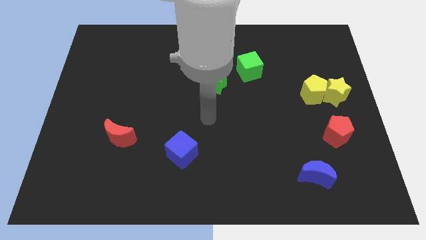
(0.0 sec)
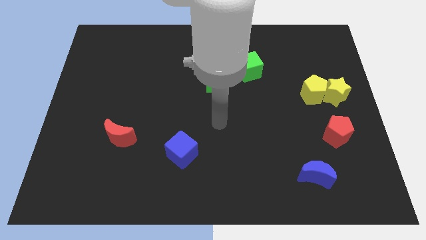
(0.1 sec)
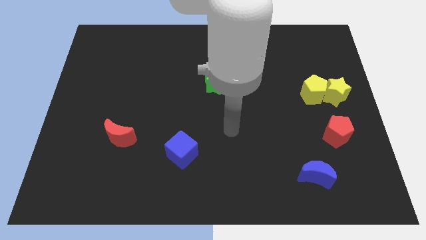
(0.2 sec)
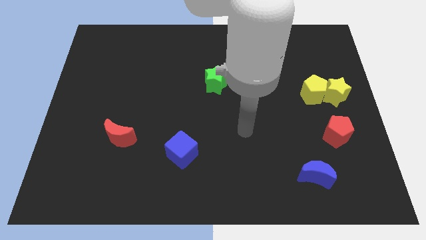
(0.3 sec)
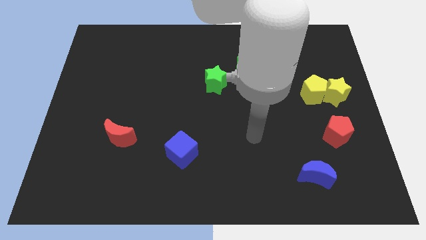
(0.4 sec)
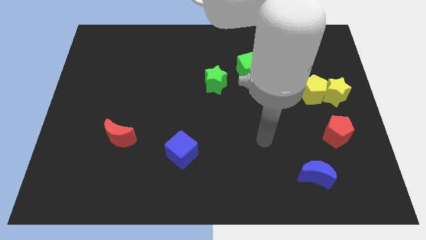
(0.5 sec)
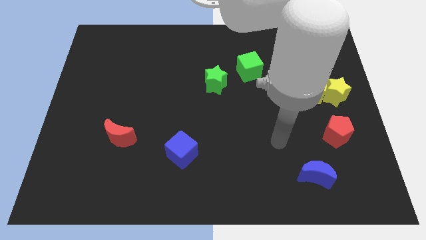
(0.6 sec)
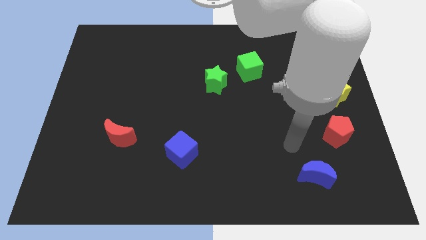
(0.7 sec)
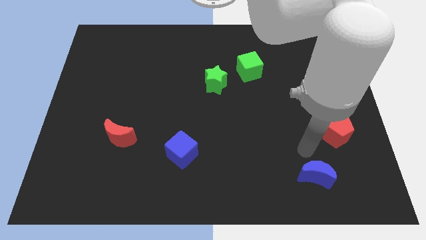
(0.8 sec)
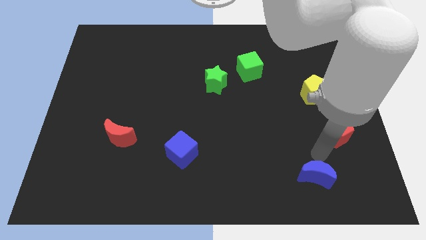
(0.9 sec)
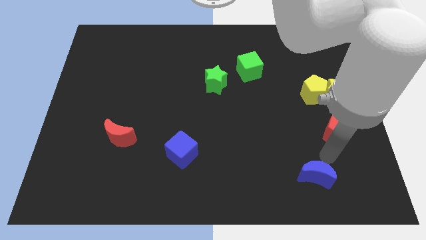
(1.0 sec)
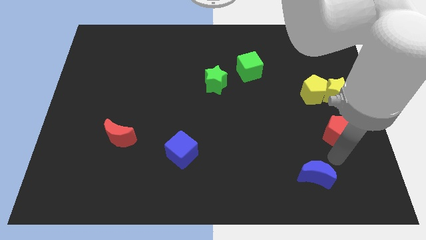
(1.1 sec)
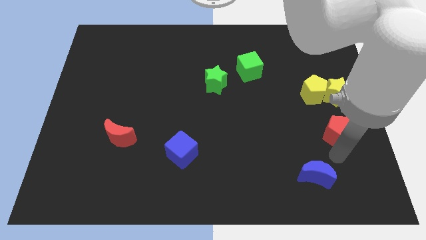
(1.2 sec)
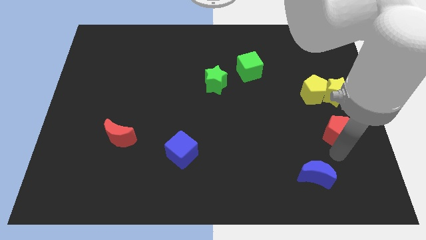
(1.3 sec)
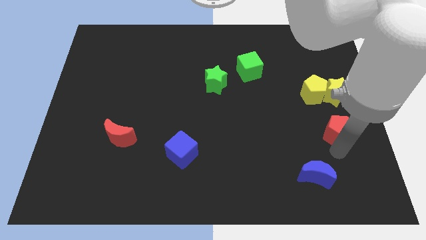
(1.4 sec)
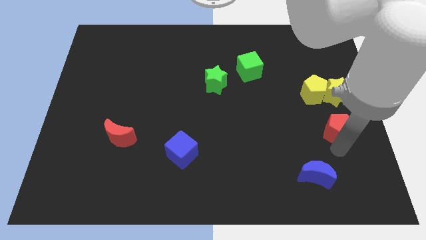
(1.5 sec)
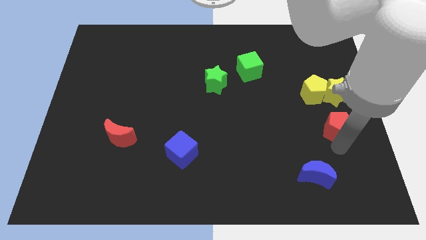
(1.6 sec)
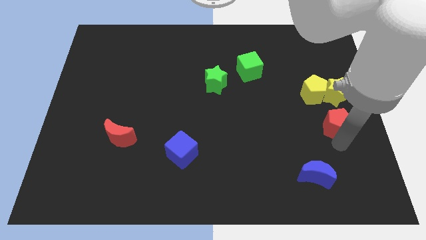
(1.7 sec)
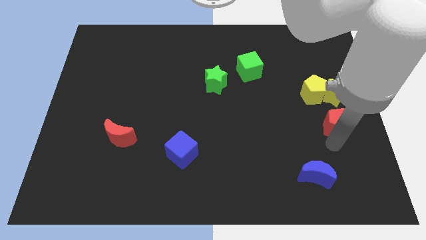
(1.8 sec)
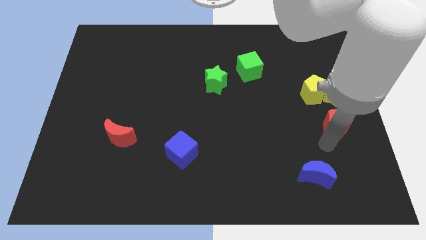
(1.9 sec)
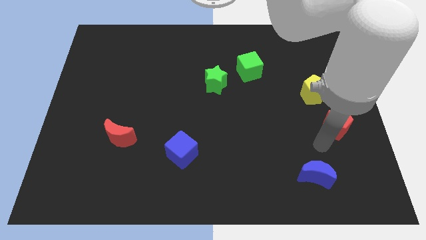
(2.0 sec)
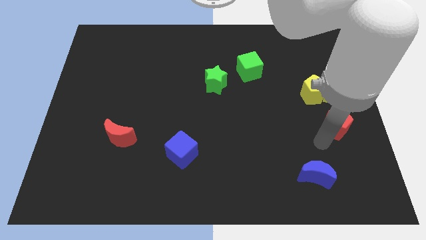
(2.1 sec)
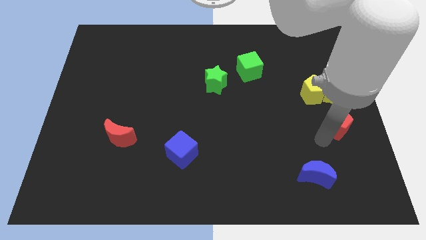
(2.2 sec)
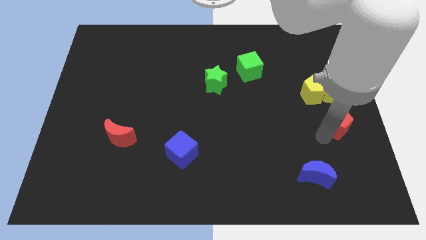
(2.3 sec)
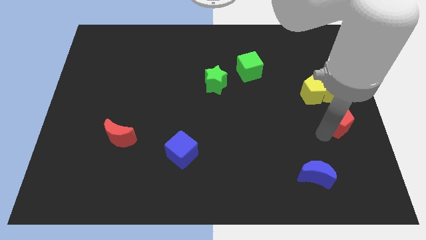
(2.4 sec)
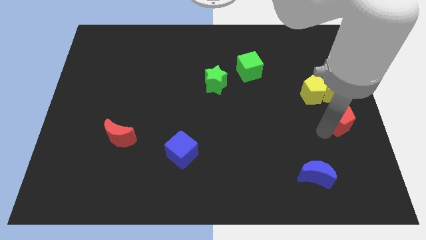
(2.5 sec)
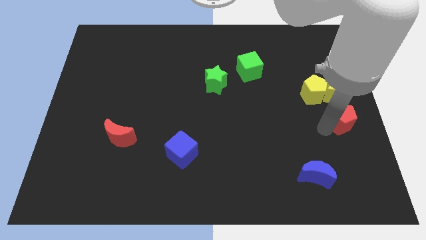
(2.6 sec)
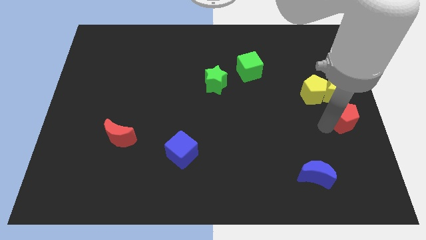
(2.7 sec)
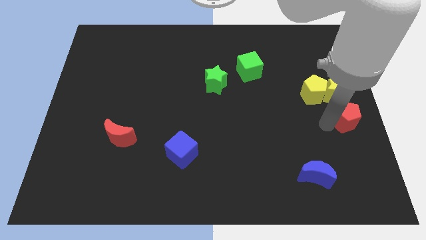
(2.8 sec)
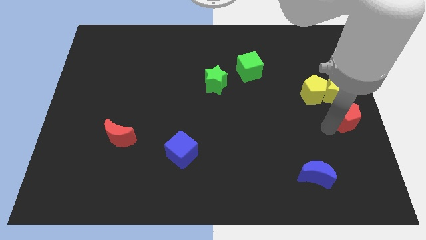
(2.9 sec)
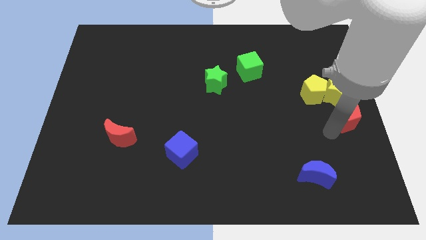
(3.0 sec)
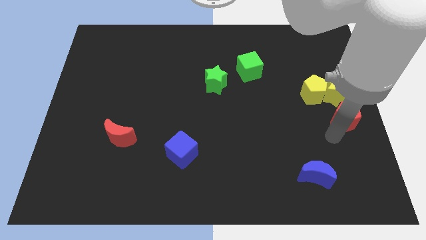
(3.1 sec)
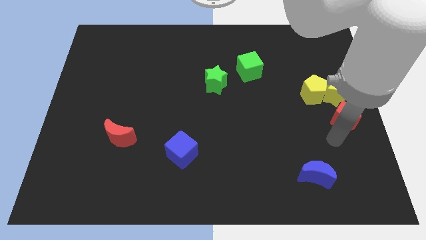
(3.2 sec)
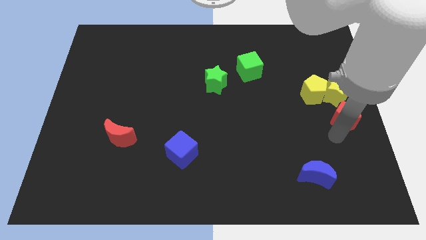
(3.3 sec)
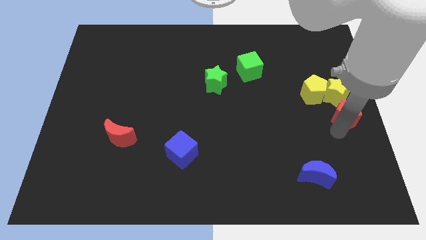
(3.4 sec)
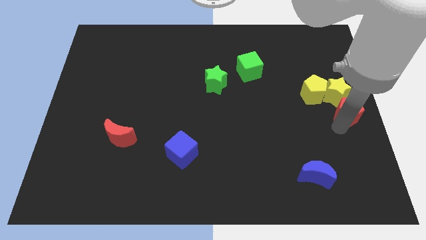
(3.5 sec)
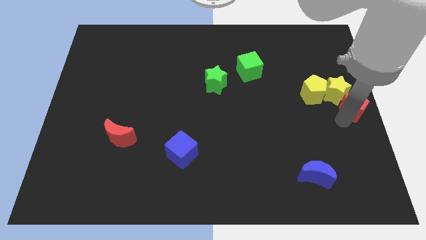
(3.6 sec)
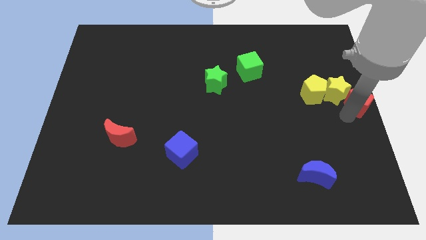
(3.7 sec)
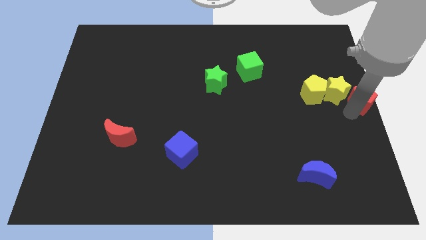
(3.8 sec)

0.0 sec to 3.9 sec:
slightly move the red pentagon up

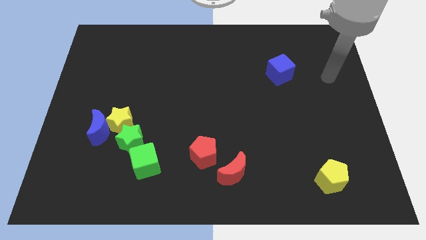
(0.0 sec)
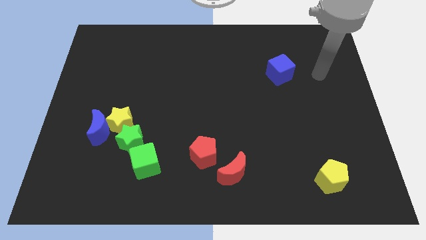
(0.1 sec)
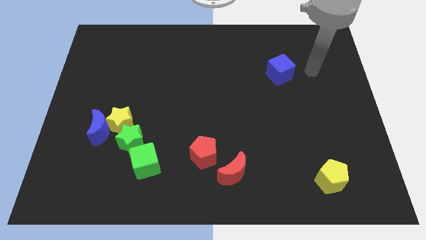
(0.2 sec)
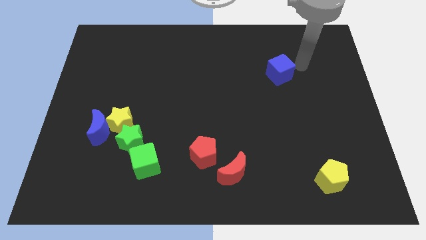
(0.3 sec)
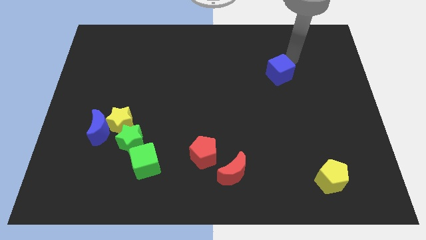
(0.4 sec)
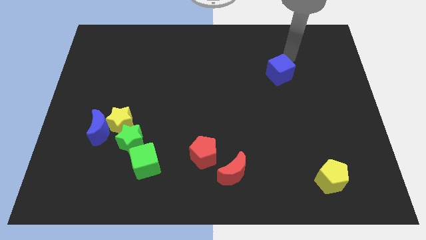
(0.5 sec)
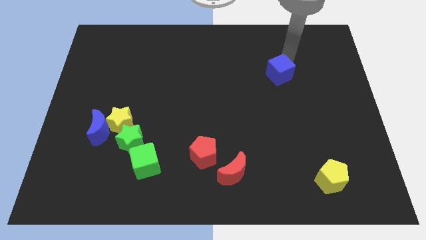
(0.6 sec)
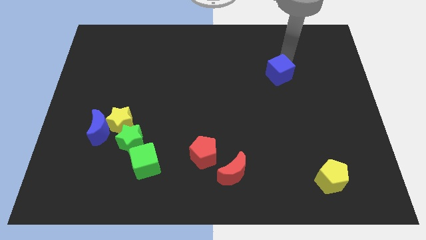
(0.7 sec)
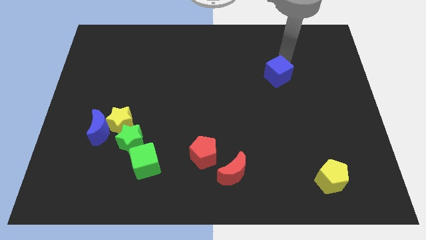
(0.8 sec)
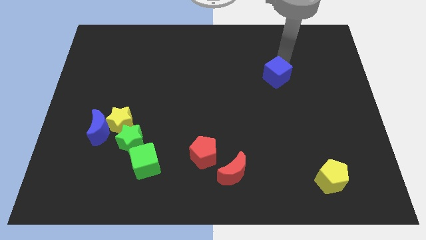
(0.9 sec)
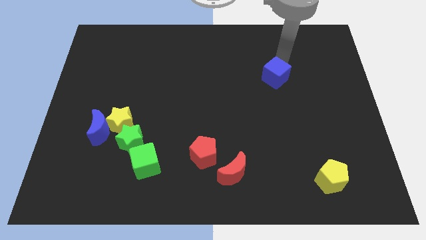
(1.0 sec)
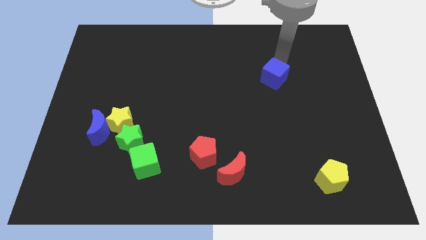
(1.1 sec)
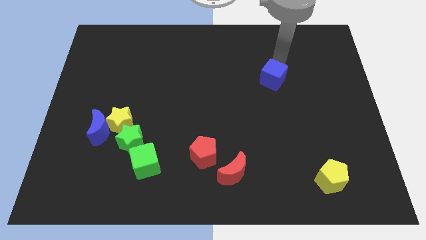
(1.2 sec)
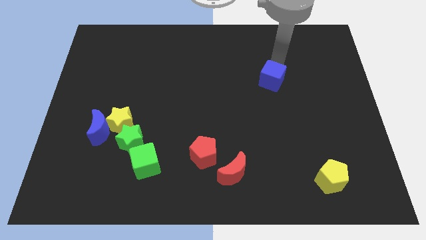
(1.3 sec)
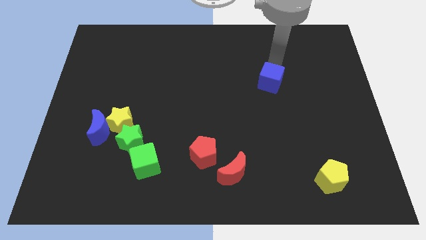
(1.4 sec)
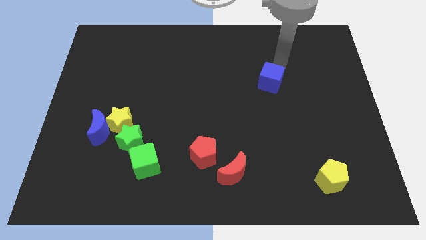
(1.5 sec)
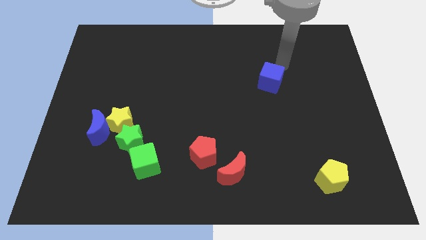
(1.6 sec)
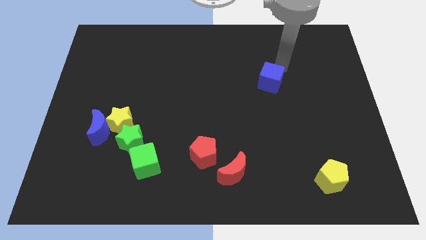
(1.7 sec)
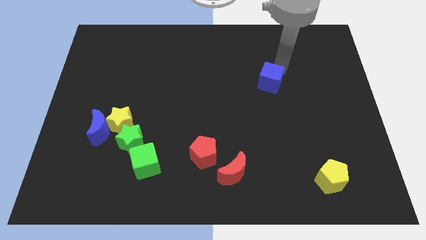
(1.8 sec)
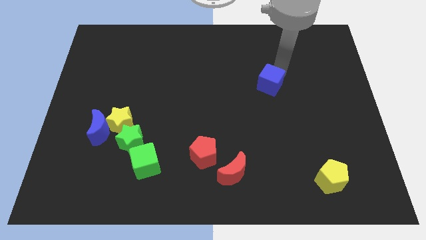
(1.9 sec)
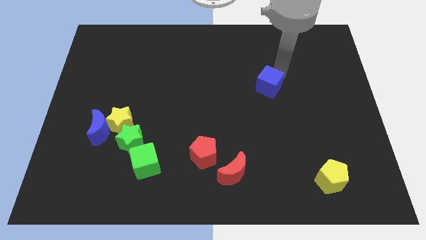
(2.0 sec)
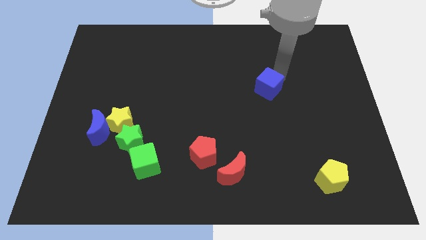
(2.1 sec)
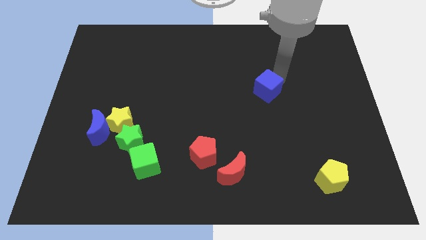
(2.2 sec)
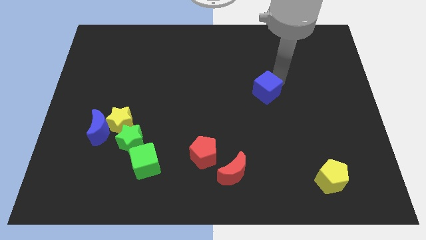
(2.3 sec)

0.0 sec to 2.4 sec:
slightly slide the blue cube down and left

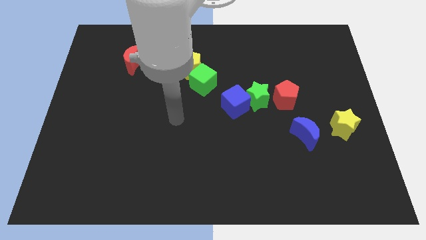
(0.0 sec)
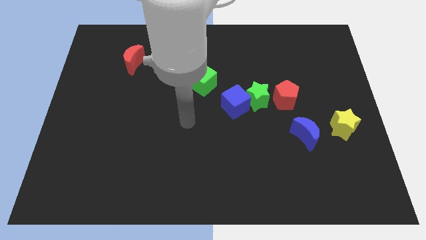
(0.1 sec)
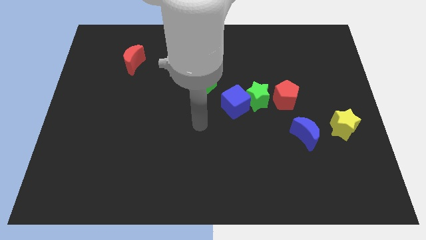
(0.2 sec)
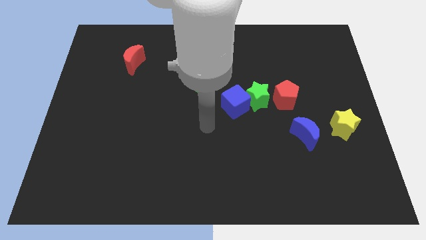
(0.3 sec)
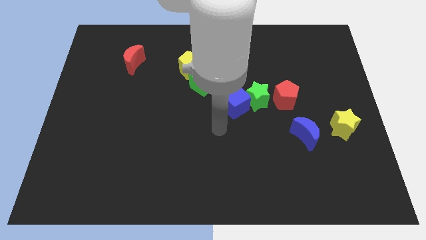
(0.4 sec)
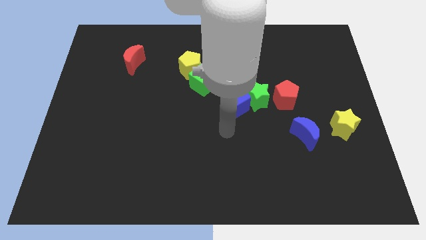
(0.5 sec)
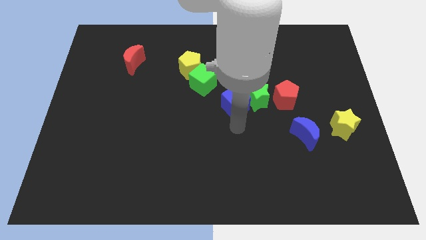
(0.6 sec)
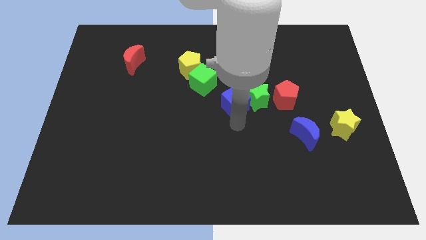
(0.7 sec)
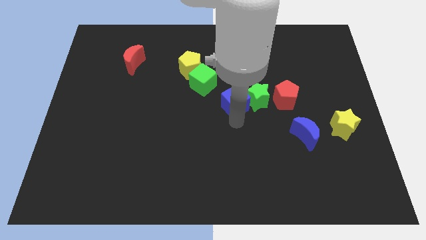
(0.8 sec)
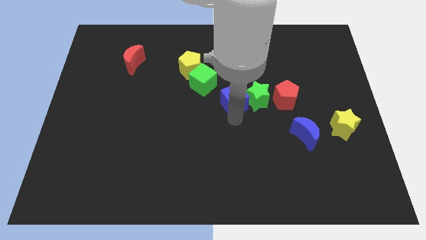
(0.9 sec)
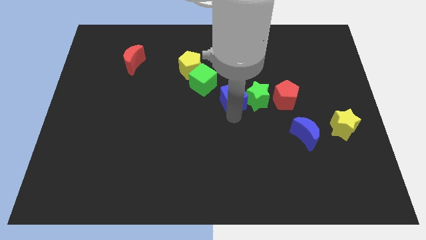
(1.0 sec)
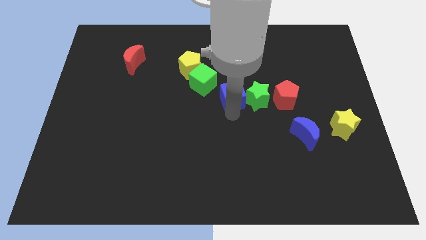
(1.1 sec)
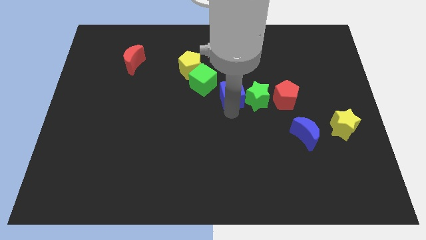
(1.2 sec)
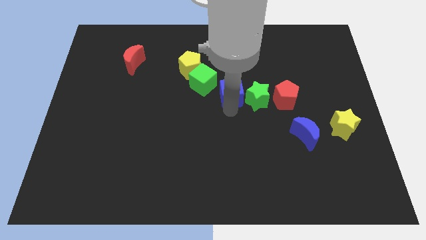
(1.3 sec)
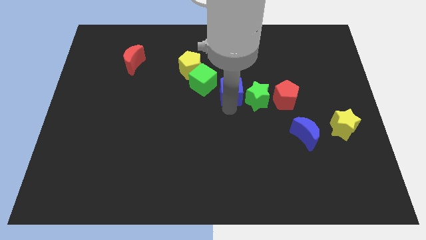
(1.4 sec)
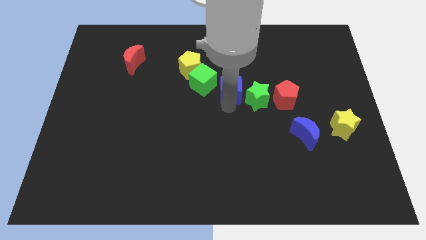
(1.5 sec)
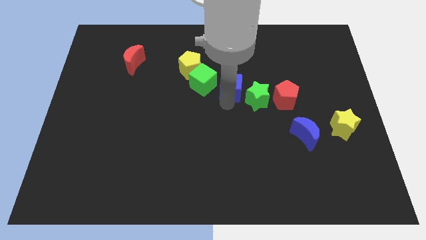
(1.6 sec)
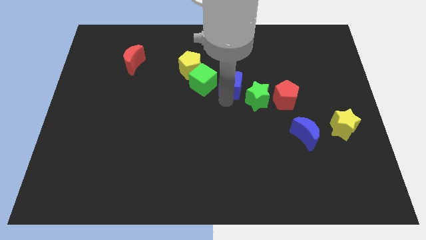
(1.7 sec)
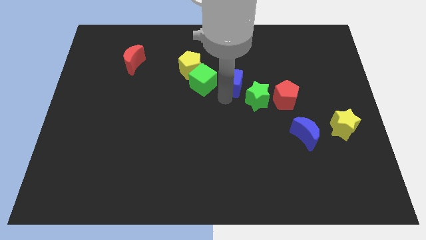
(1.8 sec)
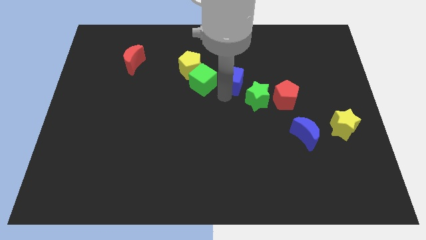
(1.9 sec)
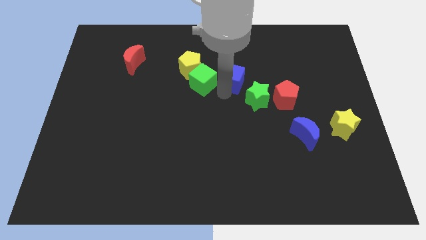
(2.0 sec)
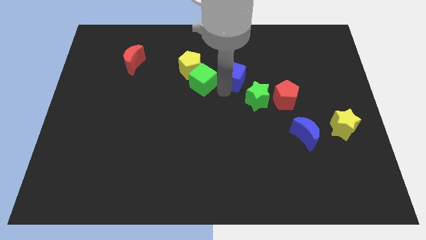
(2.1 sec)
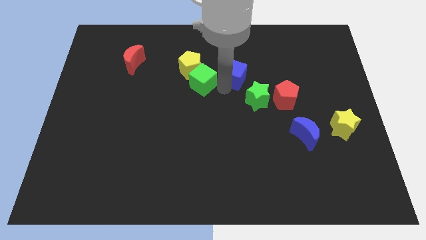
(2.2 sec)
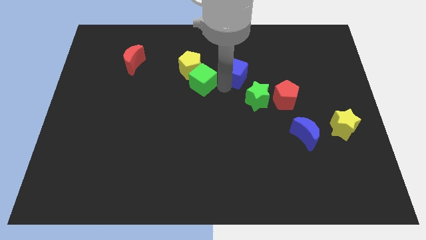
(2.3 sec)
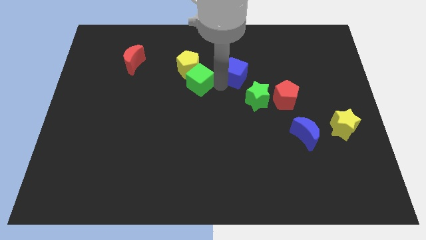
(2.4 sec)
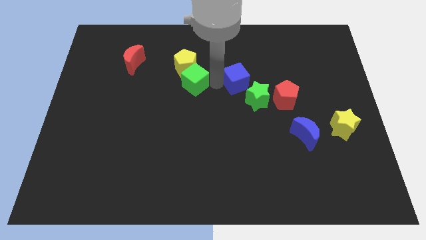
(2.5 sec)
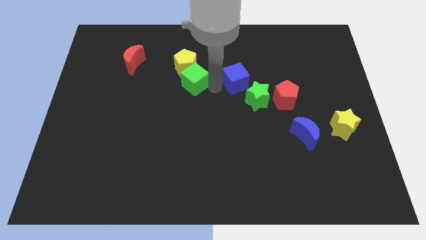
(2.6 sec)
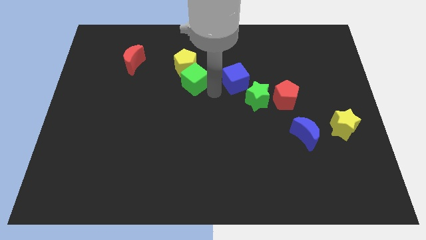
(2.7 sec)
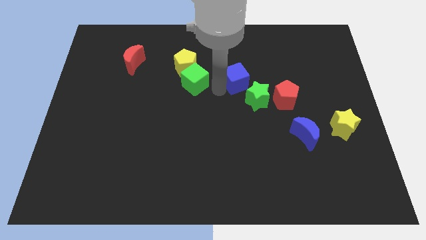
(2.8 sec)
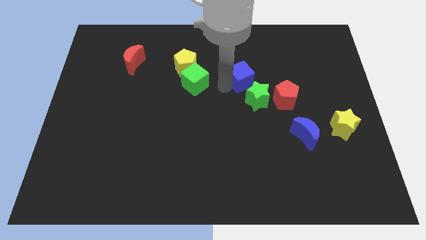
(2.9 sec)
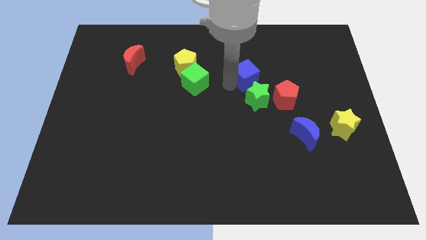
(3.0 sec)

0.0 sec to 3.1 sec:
slightly push the blue cube diagonally upwards and to the right
